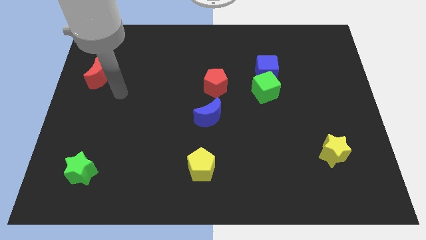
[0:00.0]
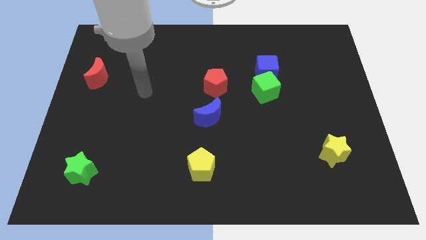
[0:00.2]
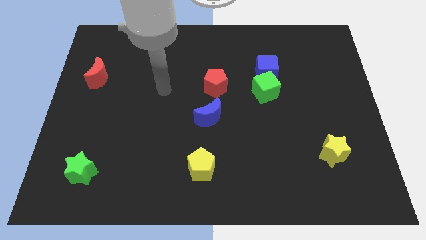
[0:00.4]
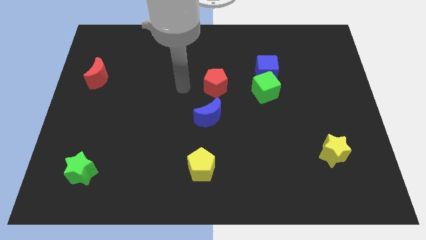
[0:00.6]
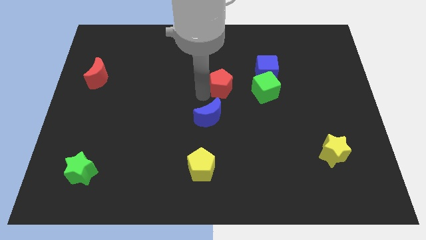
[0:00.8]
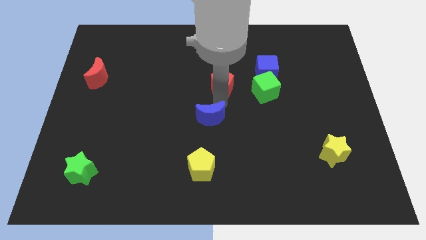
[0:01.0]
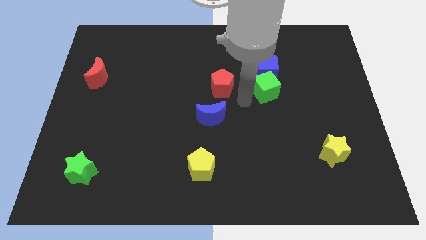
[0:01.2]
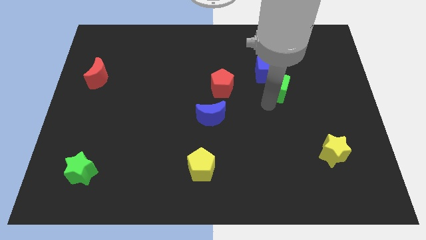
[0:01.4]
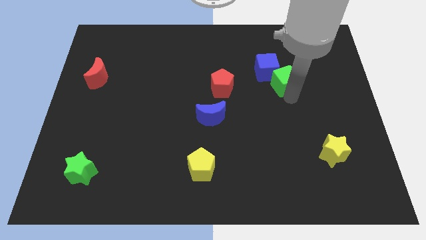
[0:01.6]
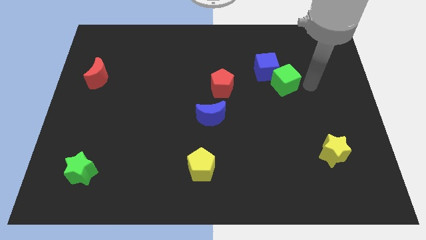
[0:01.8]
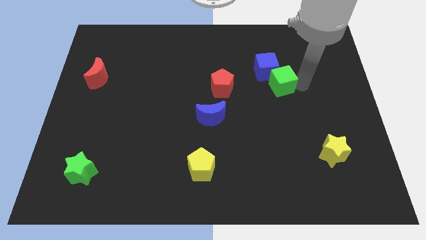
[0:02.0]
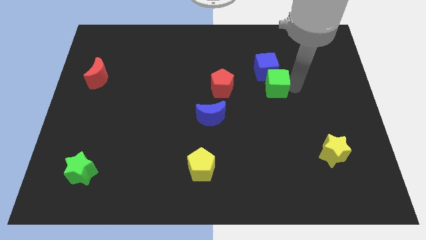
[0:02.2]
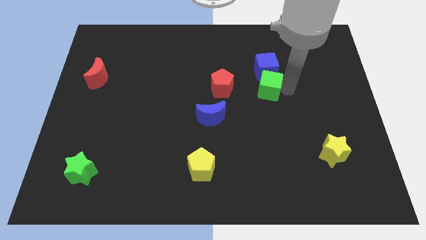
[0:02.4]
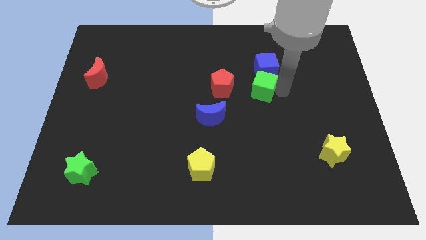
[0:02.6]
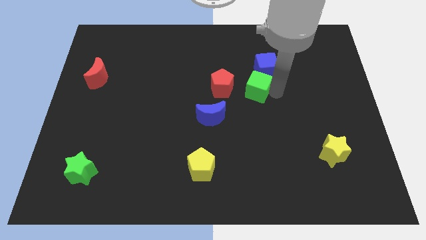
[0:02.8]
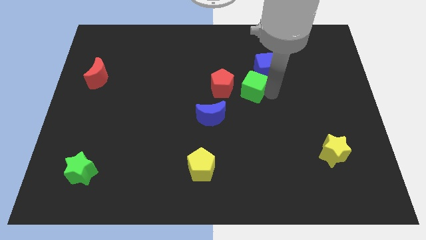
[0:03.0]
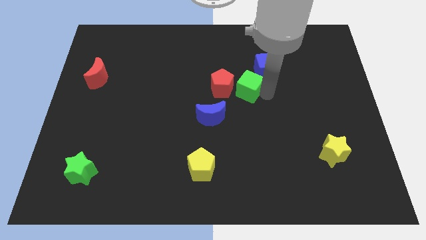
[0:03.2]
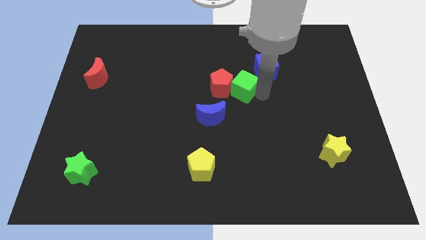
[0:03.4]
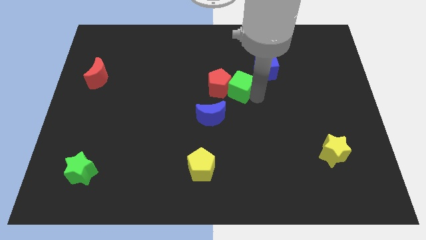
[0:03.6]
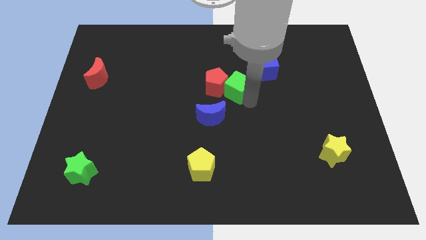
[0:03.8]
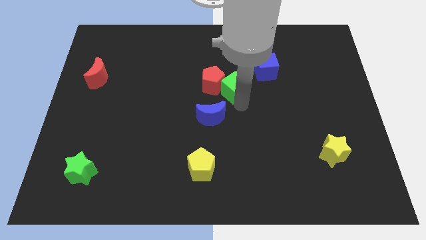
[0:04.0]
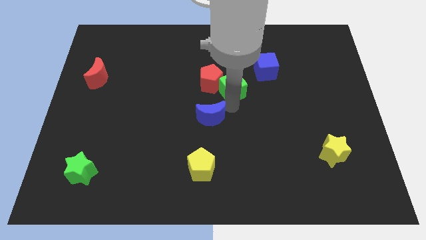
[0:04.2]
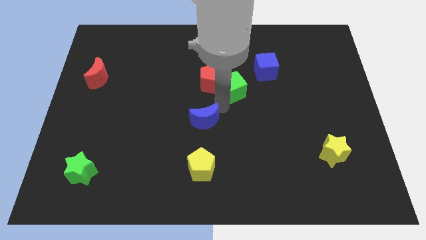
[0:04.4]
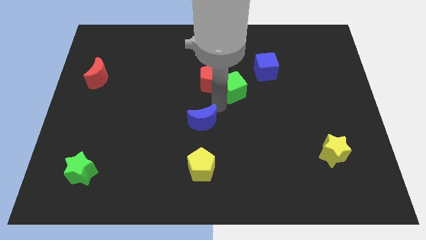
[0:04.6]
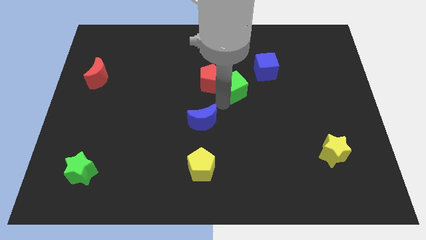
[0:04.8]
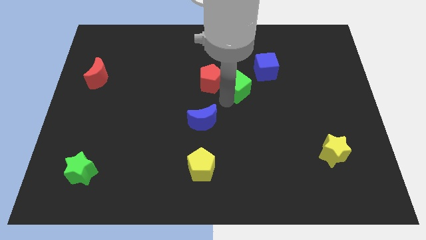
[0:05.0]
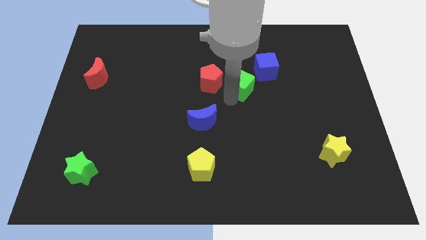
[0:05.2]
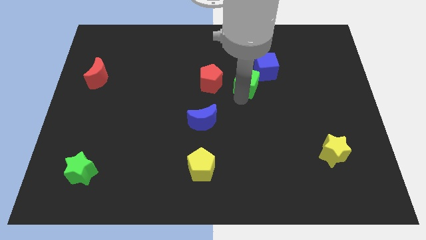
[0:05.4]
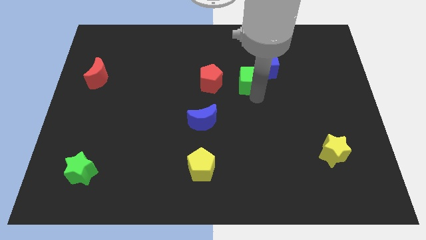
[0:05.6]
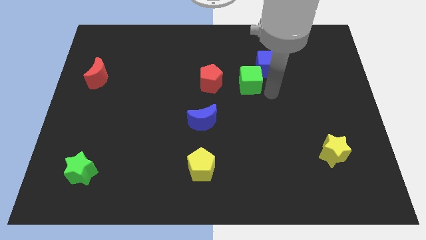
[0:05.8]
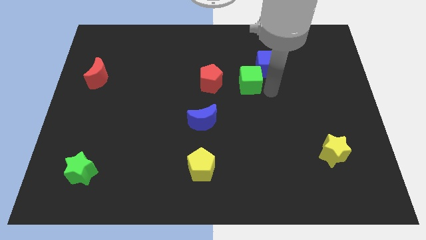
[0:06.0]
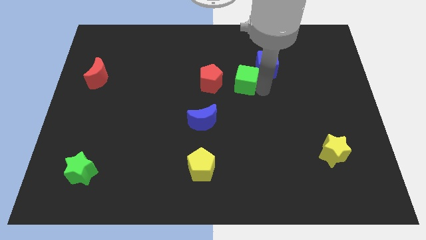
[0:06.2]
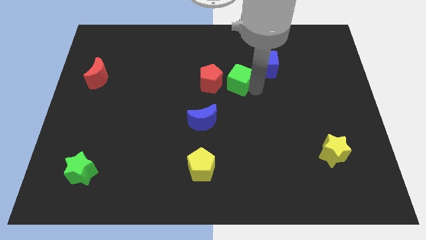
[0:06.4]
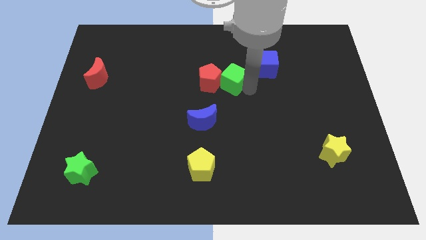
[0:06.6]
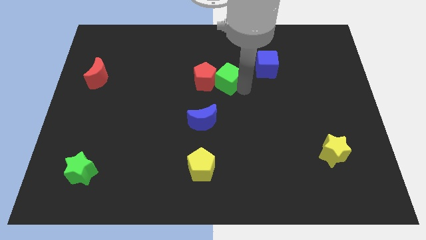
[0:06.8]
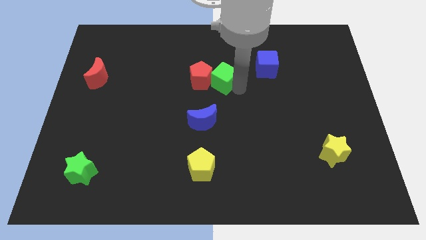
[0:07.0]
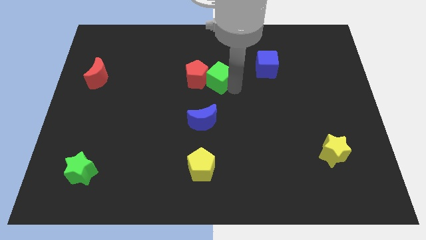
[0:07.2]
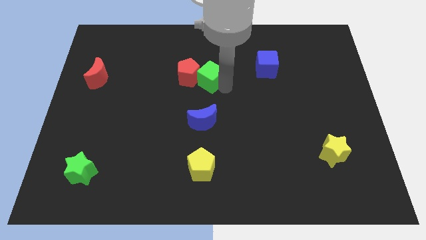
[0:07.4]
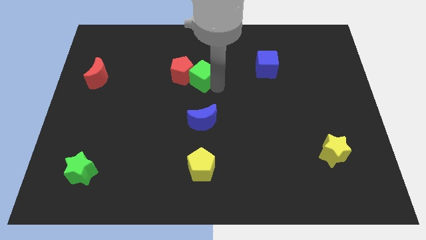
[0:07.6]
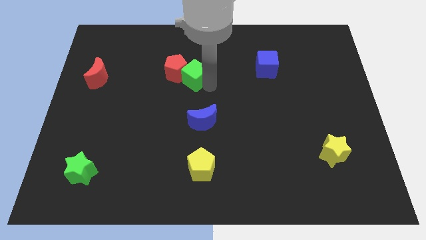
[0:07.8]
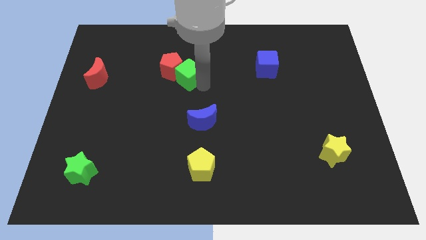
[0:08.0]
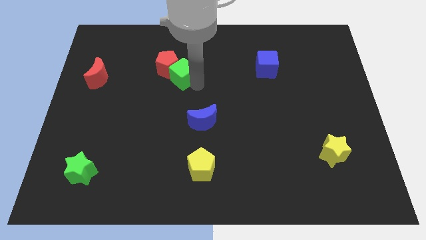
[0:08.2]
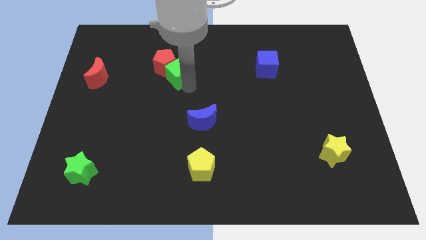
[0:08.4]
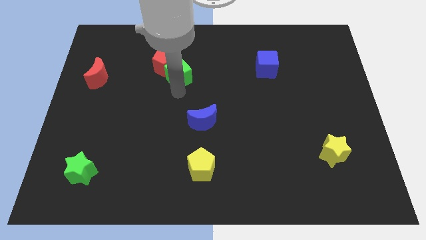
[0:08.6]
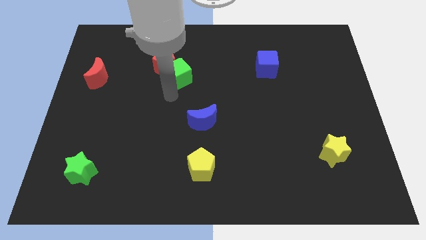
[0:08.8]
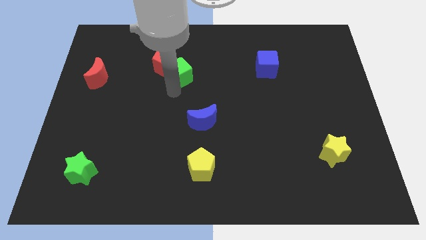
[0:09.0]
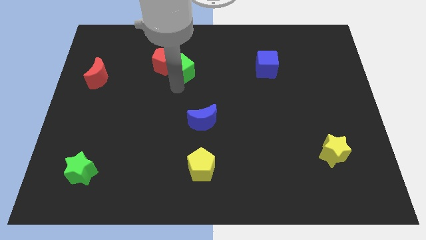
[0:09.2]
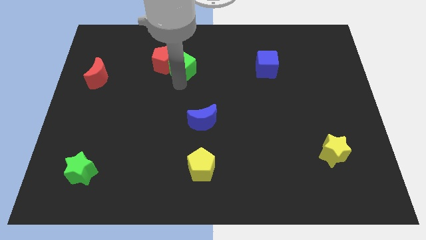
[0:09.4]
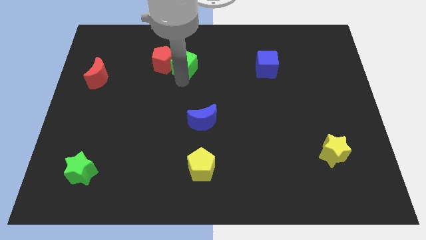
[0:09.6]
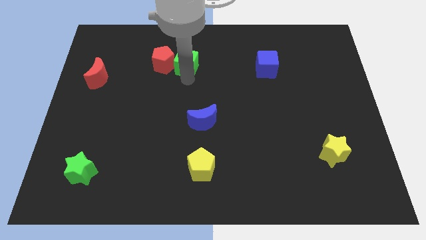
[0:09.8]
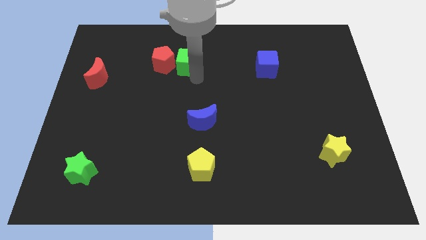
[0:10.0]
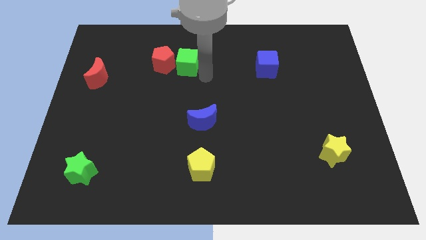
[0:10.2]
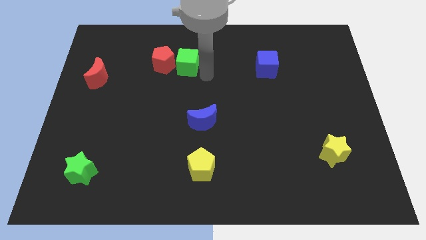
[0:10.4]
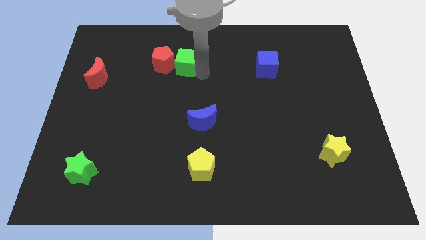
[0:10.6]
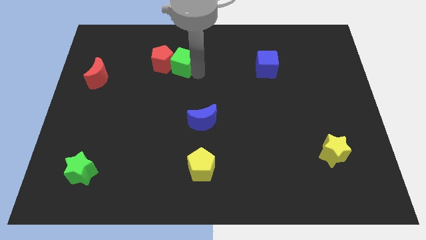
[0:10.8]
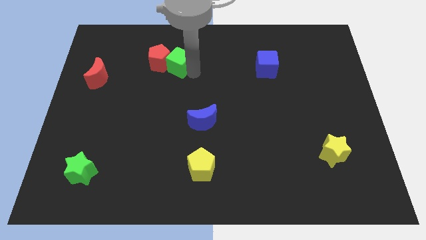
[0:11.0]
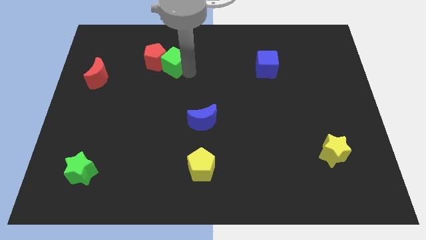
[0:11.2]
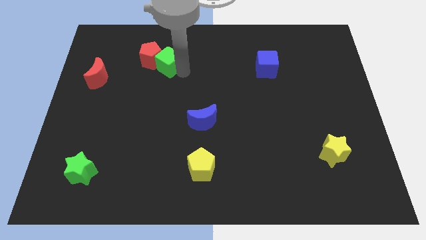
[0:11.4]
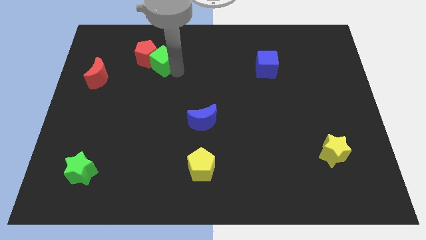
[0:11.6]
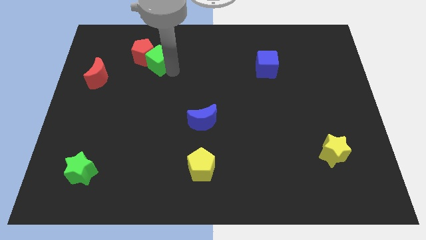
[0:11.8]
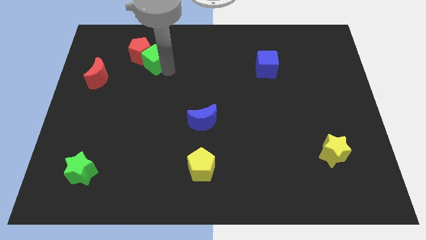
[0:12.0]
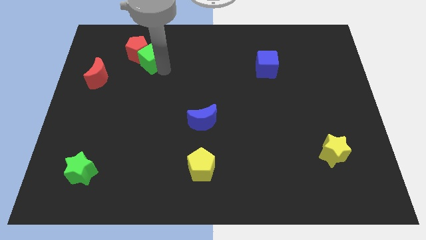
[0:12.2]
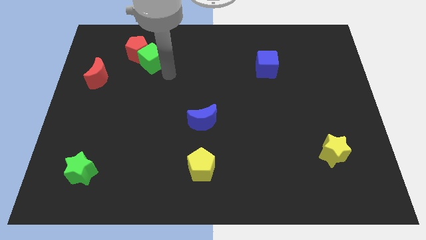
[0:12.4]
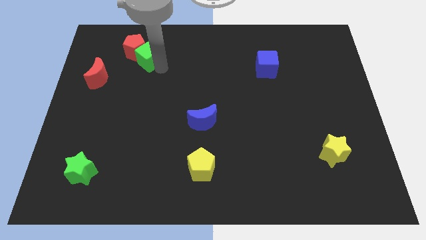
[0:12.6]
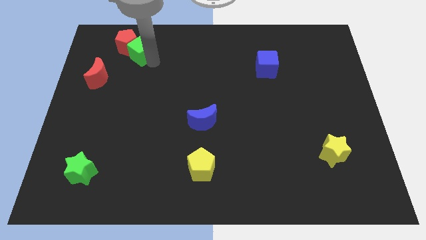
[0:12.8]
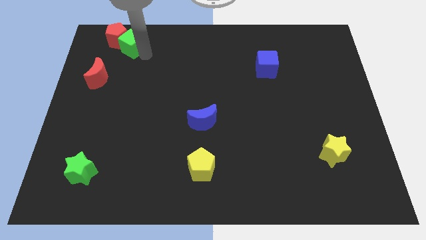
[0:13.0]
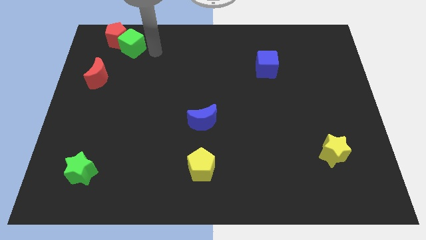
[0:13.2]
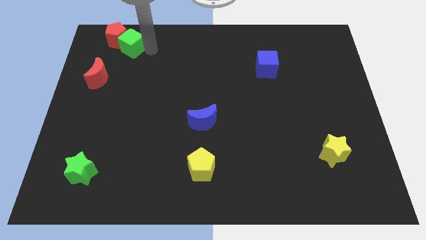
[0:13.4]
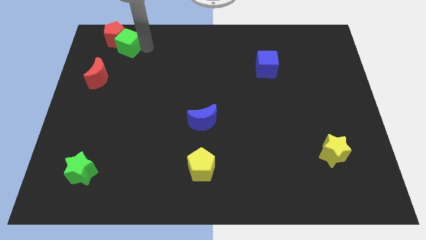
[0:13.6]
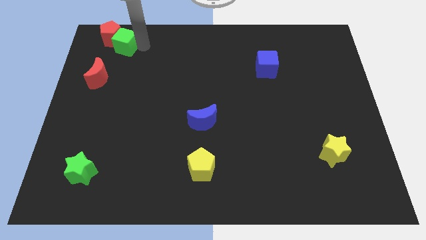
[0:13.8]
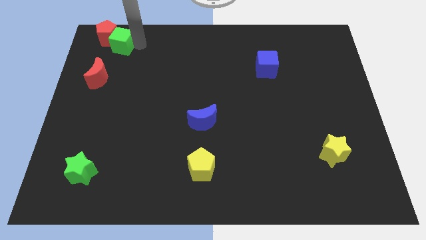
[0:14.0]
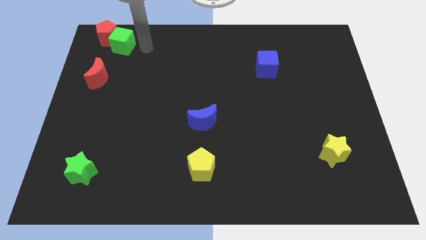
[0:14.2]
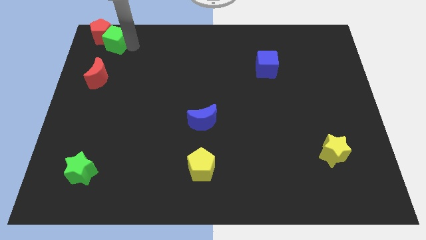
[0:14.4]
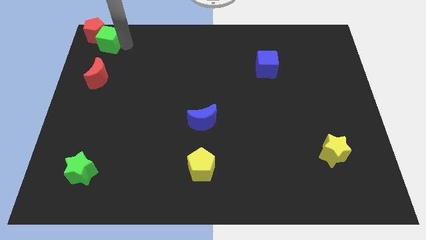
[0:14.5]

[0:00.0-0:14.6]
slide the green cube to the top left
